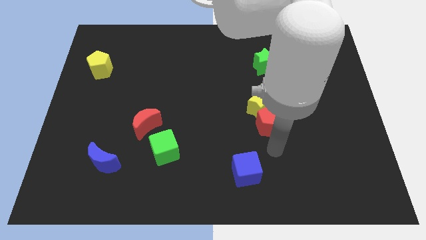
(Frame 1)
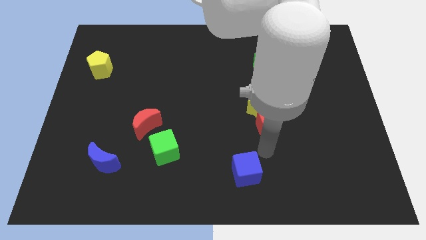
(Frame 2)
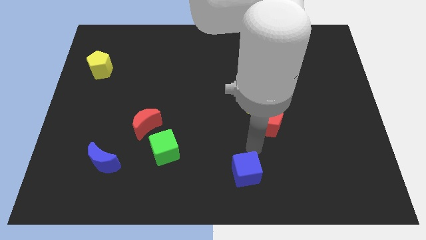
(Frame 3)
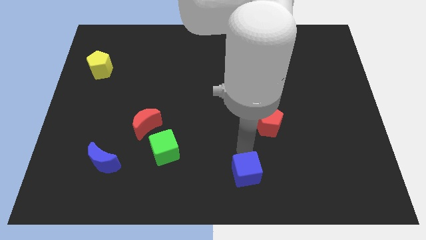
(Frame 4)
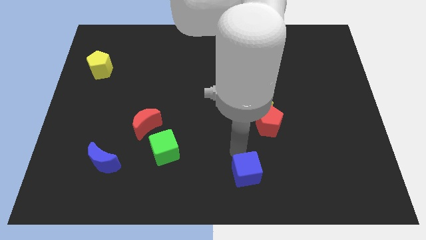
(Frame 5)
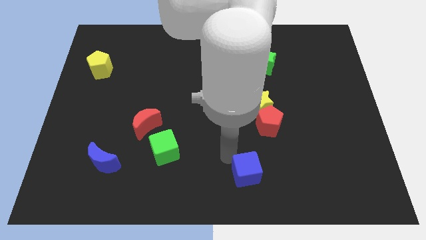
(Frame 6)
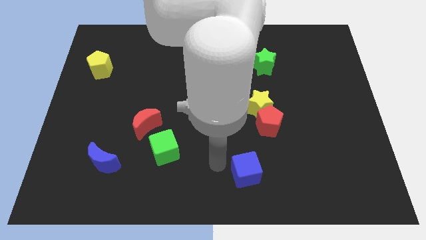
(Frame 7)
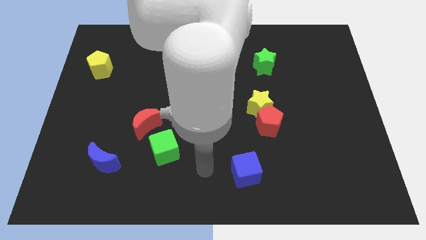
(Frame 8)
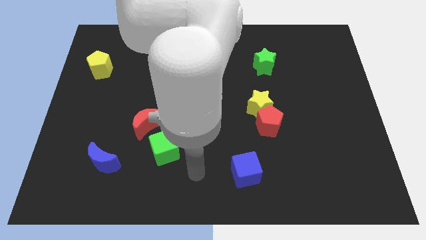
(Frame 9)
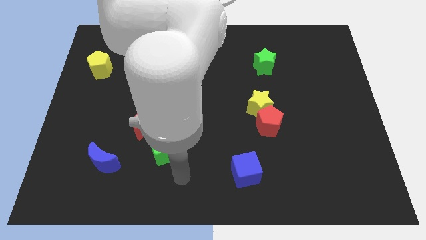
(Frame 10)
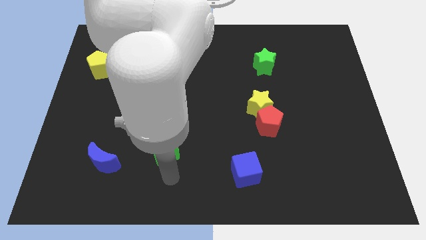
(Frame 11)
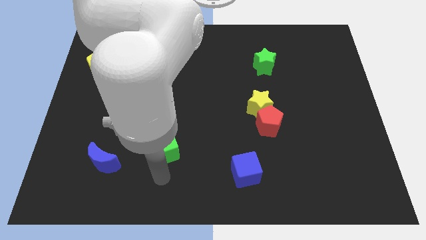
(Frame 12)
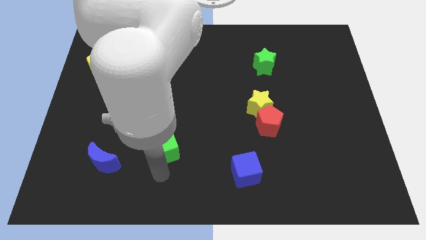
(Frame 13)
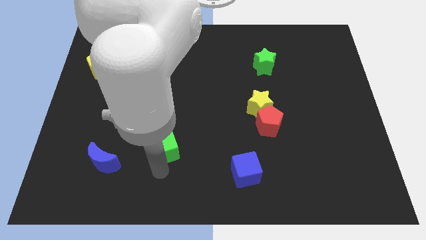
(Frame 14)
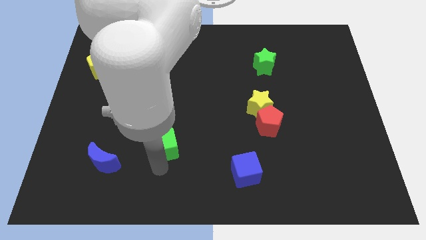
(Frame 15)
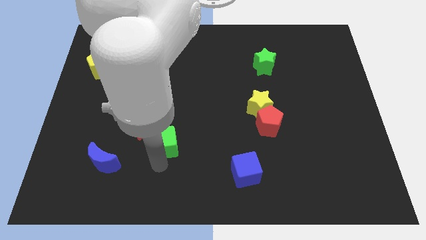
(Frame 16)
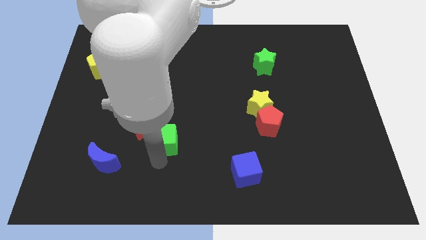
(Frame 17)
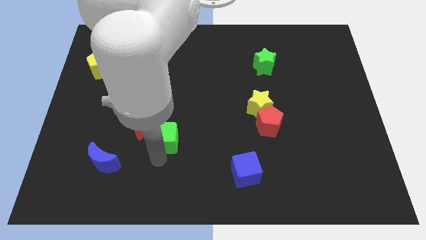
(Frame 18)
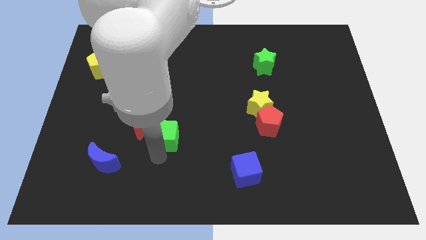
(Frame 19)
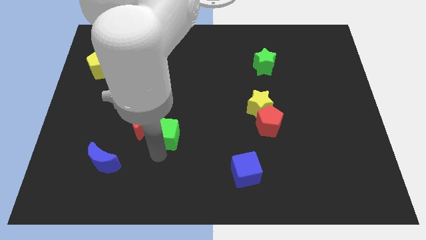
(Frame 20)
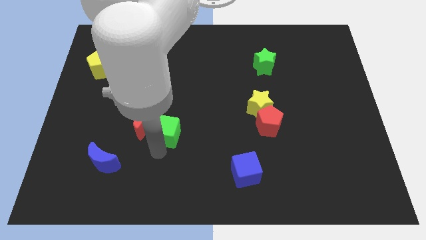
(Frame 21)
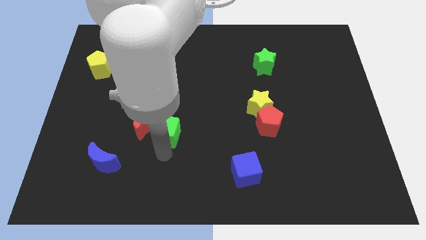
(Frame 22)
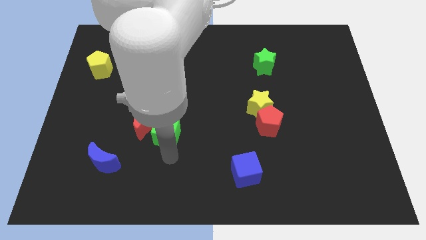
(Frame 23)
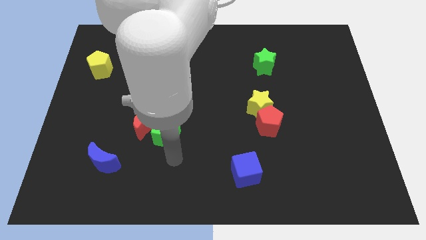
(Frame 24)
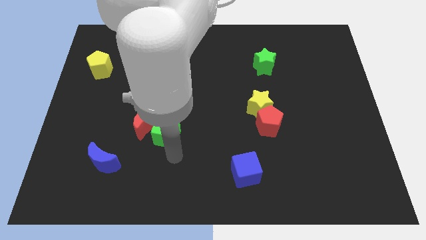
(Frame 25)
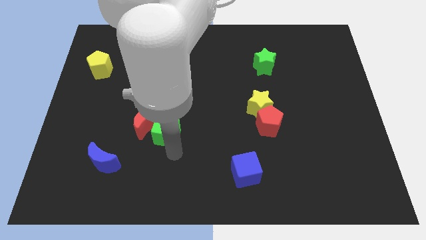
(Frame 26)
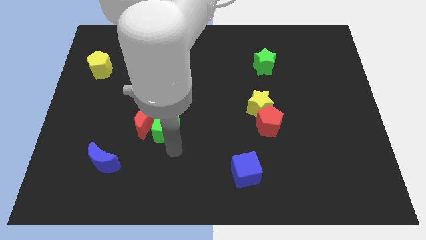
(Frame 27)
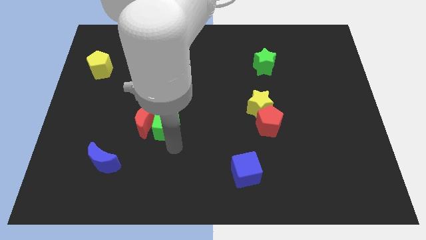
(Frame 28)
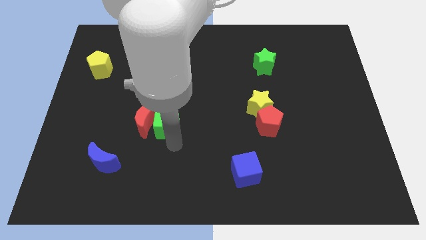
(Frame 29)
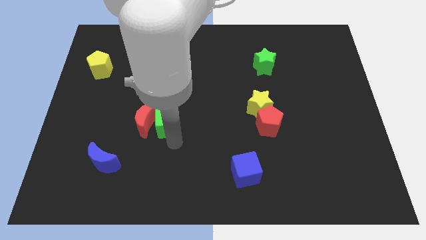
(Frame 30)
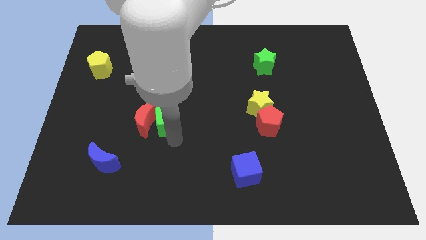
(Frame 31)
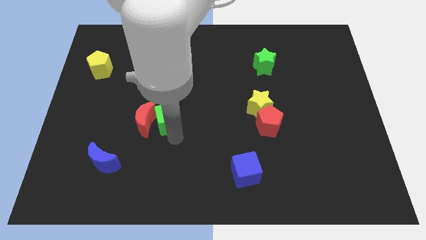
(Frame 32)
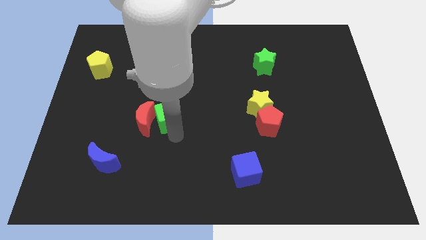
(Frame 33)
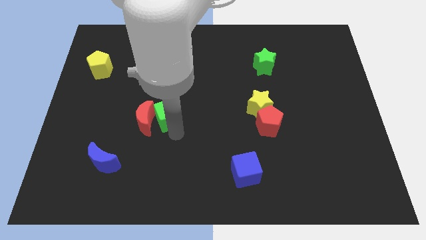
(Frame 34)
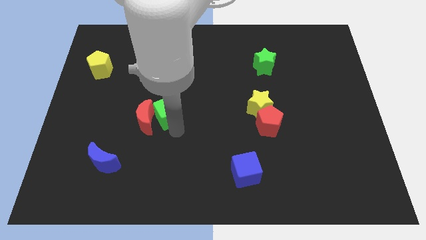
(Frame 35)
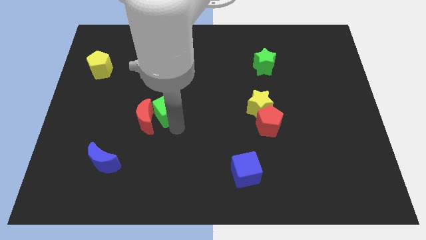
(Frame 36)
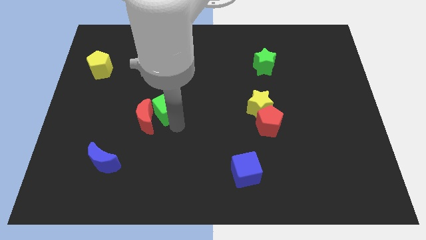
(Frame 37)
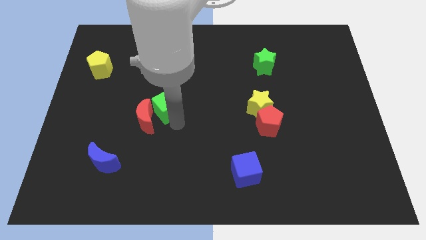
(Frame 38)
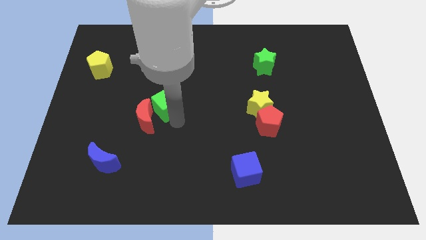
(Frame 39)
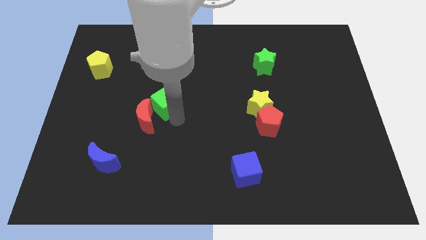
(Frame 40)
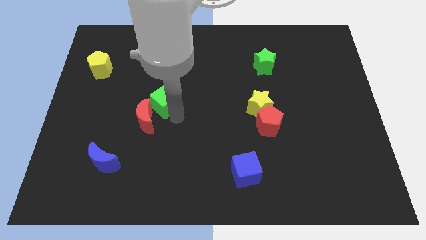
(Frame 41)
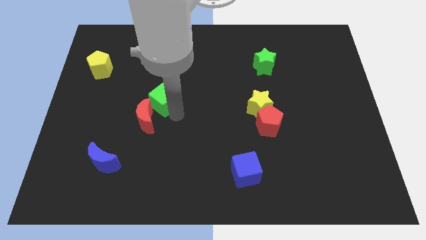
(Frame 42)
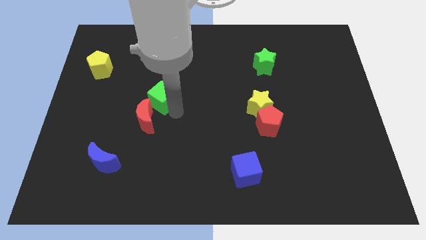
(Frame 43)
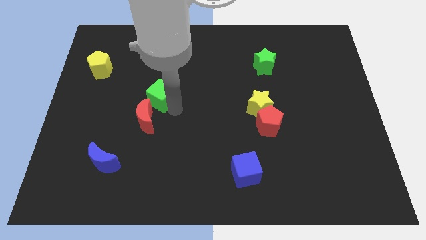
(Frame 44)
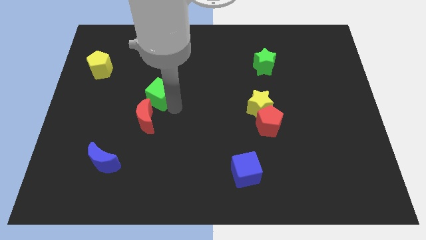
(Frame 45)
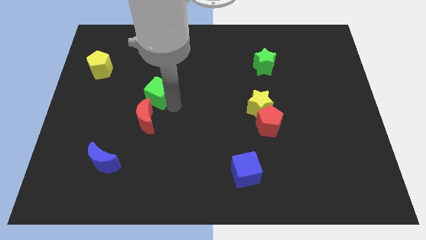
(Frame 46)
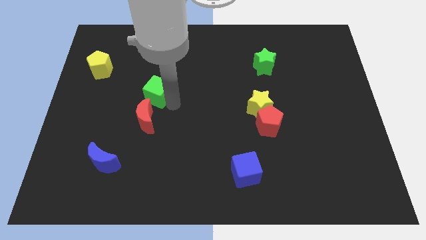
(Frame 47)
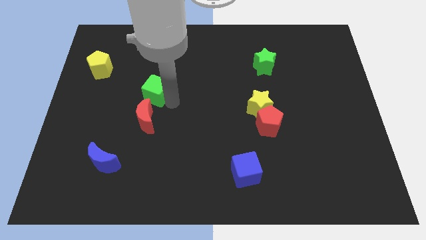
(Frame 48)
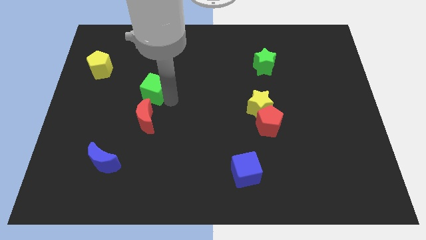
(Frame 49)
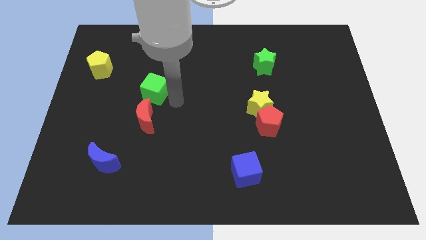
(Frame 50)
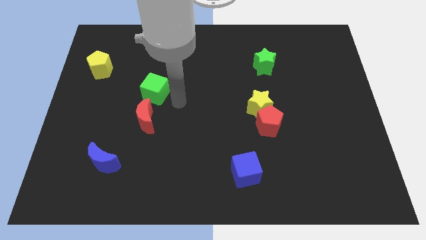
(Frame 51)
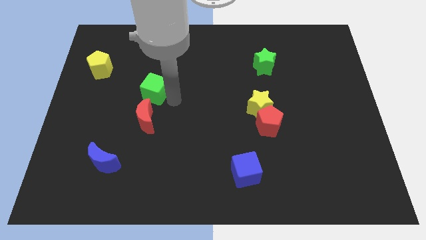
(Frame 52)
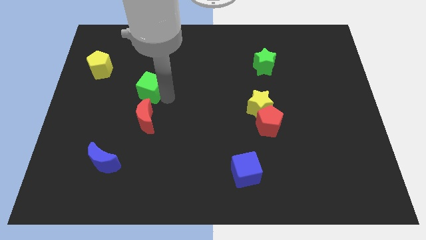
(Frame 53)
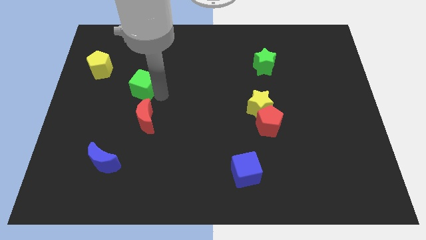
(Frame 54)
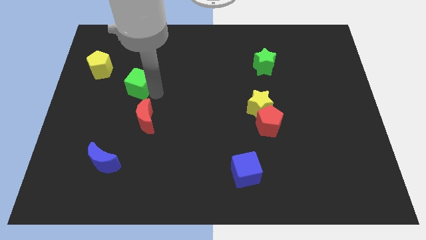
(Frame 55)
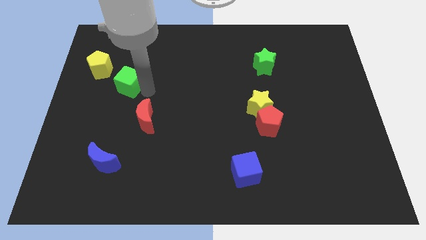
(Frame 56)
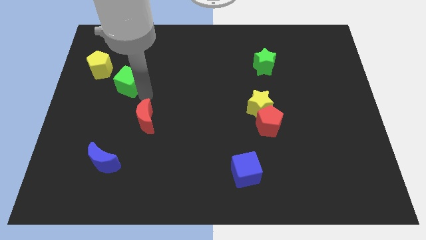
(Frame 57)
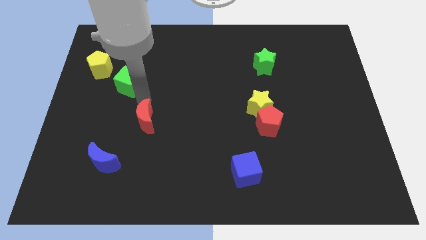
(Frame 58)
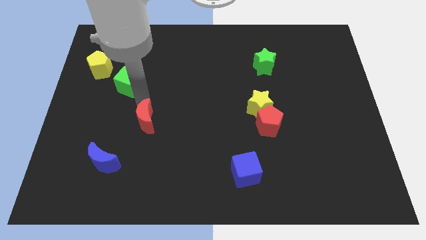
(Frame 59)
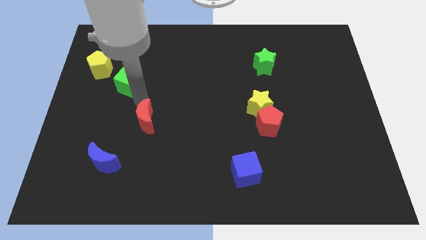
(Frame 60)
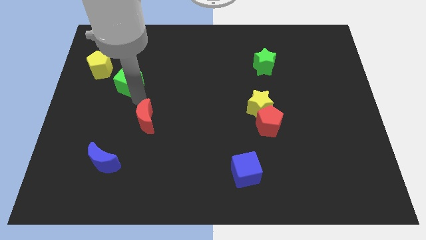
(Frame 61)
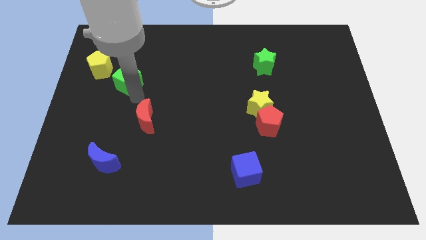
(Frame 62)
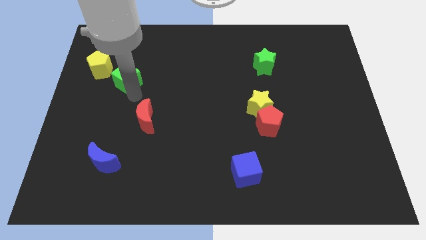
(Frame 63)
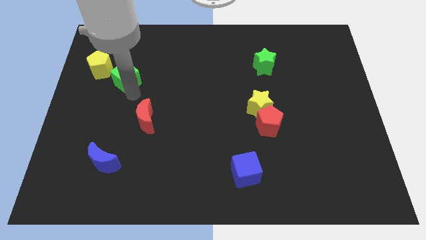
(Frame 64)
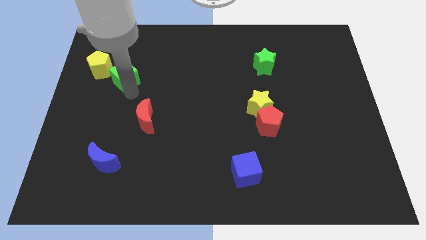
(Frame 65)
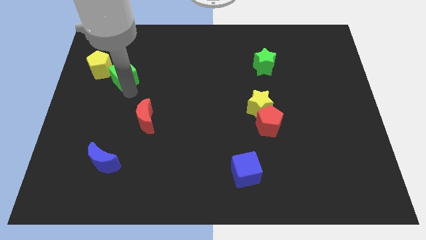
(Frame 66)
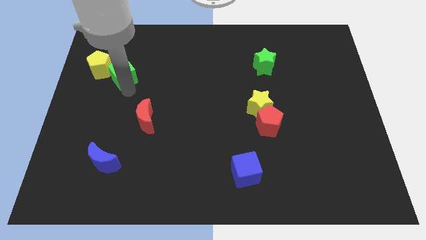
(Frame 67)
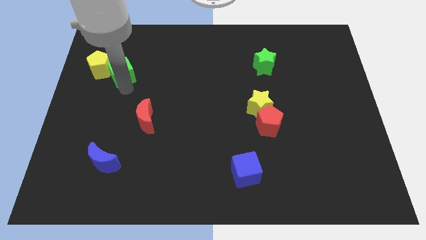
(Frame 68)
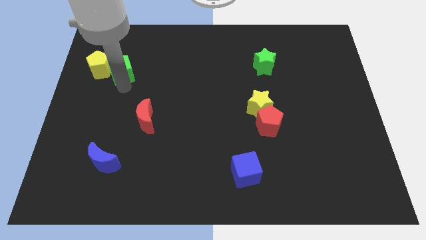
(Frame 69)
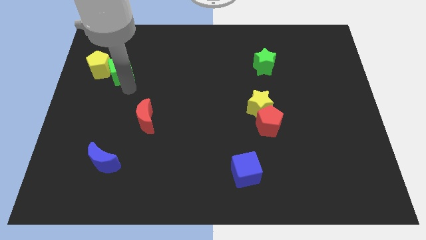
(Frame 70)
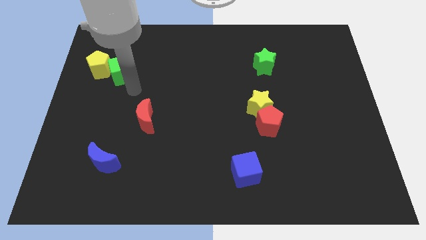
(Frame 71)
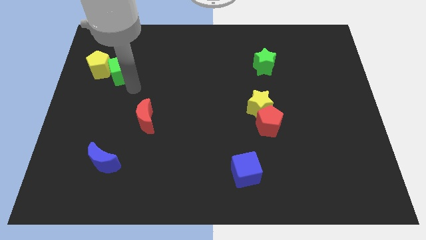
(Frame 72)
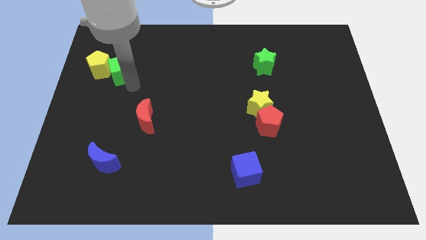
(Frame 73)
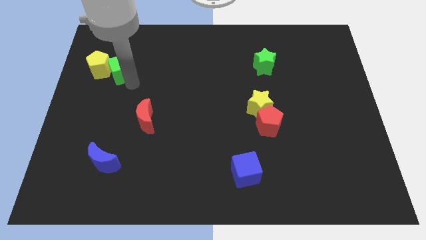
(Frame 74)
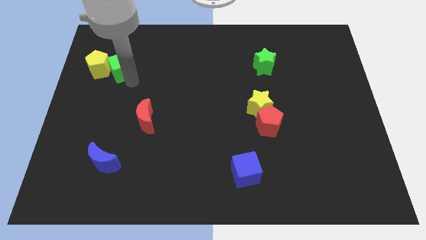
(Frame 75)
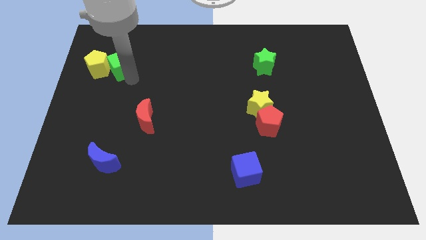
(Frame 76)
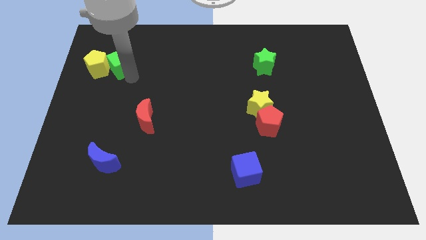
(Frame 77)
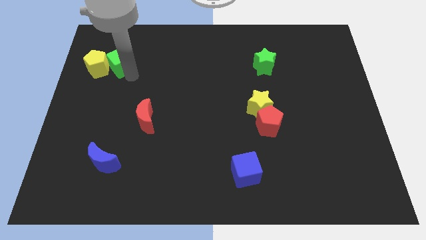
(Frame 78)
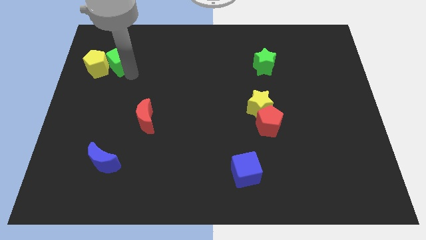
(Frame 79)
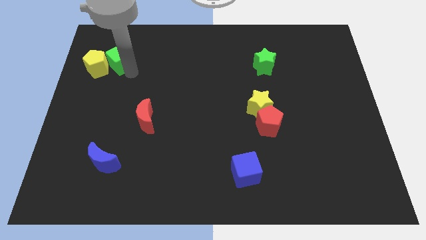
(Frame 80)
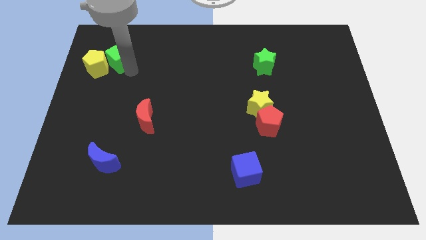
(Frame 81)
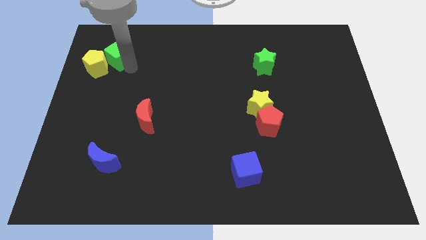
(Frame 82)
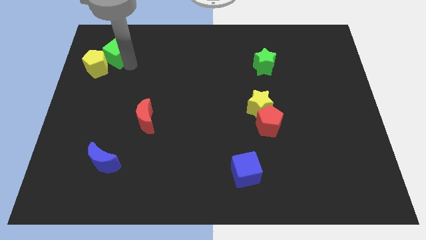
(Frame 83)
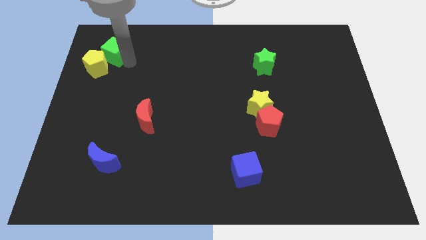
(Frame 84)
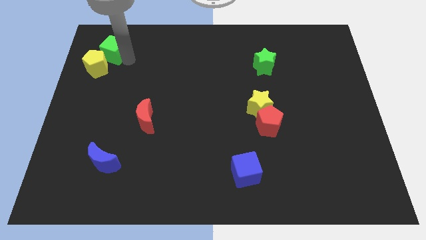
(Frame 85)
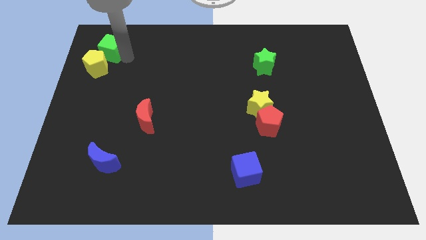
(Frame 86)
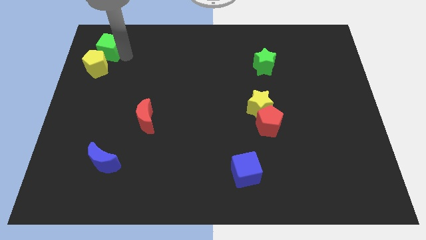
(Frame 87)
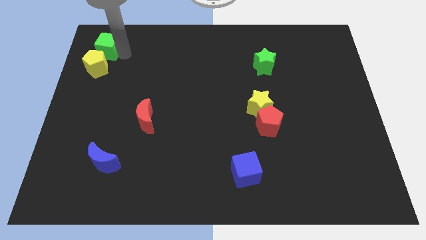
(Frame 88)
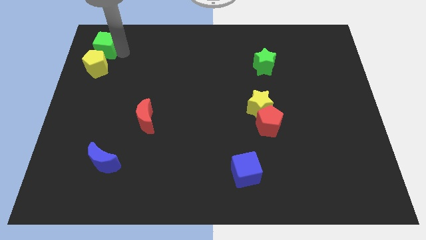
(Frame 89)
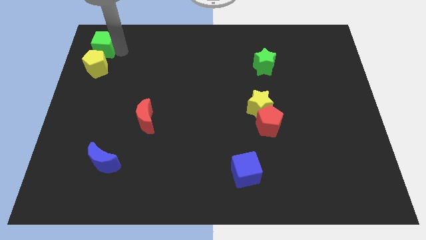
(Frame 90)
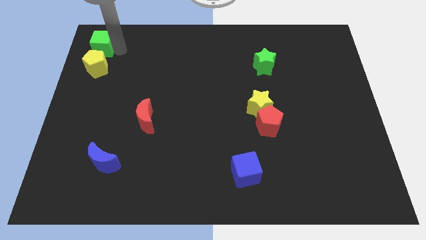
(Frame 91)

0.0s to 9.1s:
move the green cube to the top left of the board
